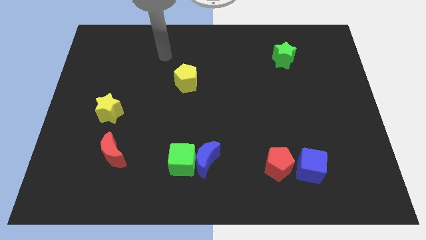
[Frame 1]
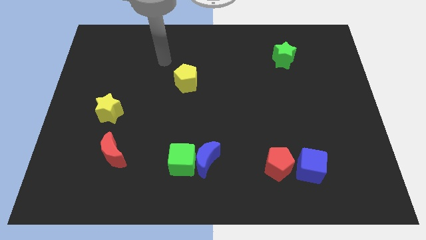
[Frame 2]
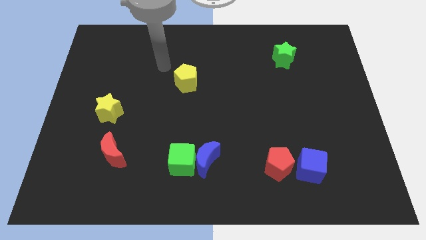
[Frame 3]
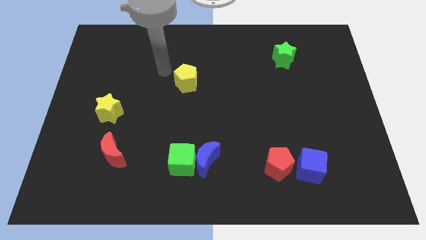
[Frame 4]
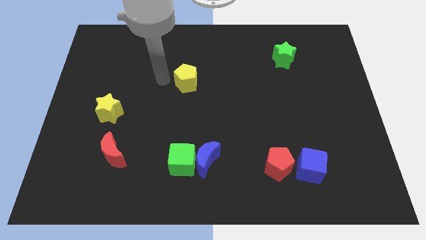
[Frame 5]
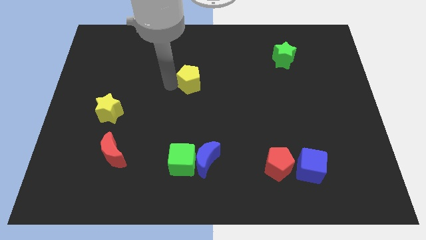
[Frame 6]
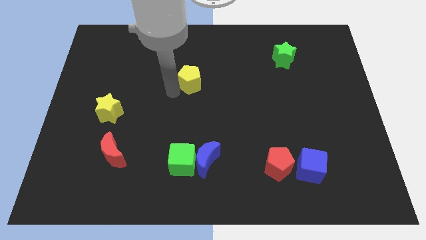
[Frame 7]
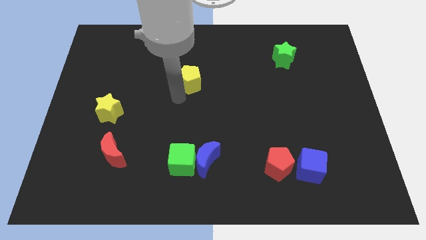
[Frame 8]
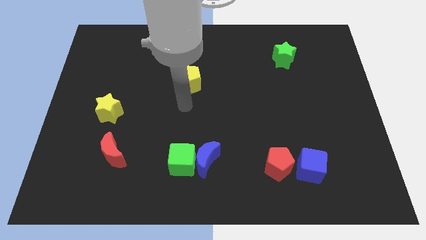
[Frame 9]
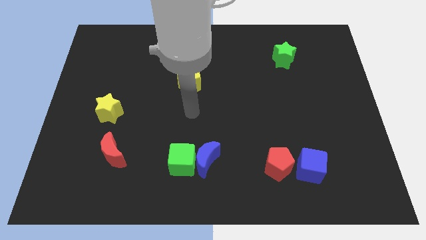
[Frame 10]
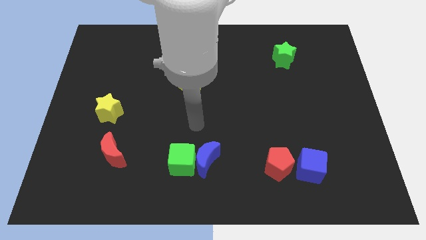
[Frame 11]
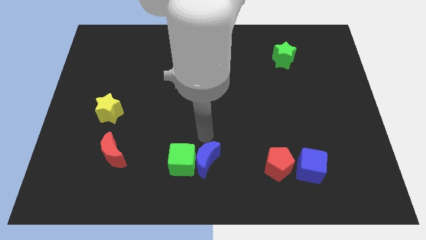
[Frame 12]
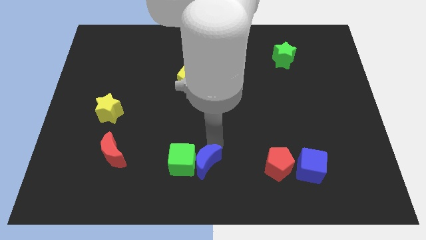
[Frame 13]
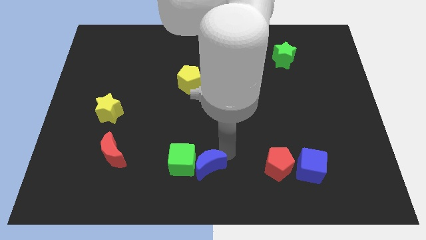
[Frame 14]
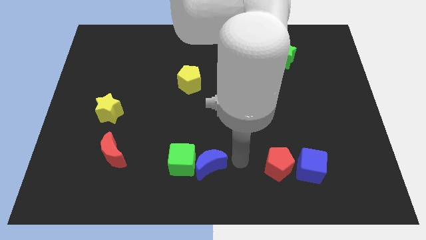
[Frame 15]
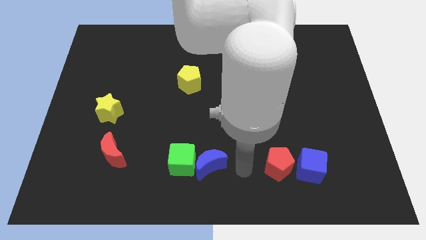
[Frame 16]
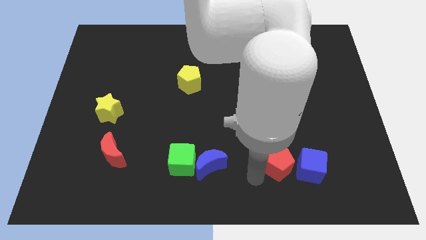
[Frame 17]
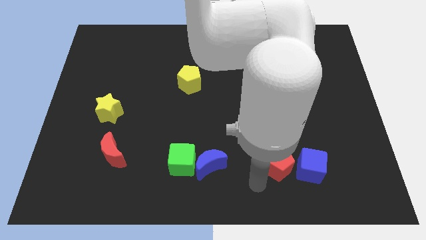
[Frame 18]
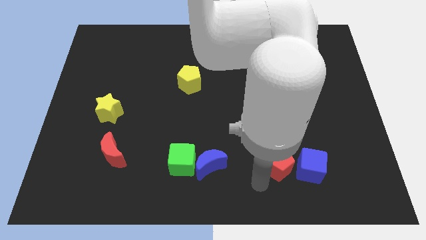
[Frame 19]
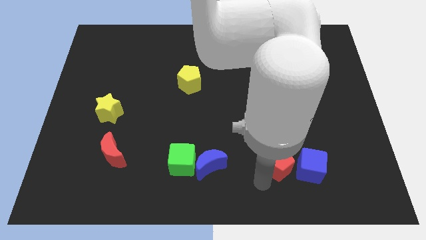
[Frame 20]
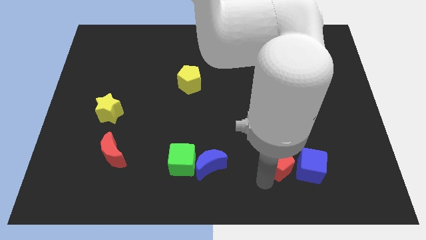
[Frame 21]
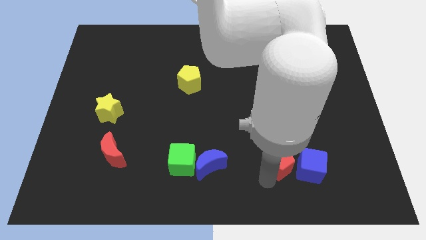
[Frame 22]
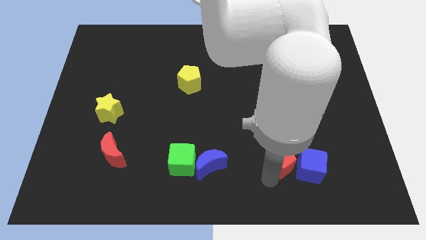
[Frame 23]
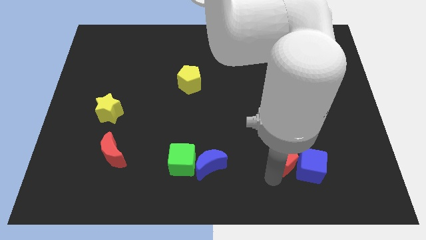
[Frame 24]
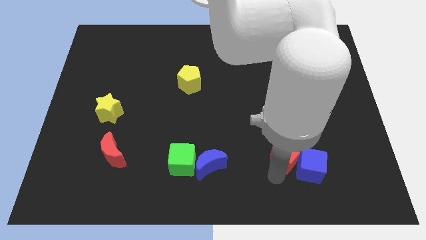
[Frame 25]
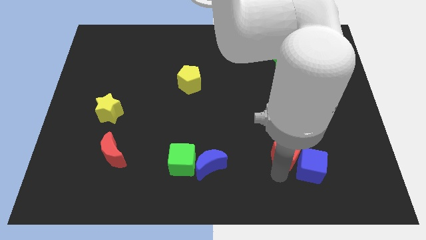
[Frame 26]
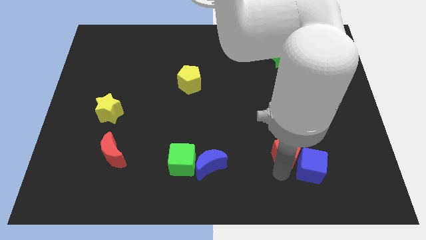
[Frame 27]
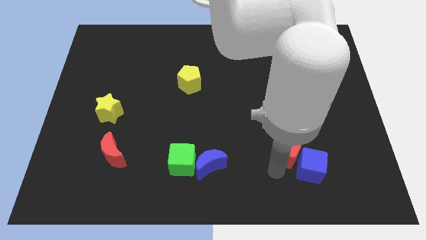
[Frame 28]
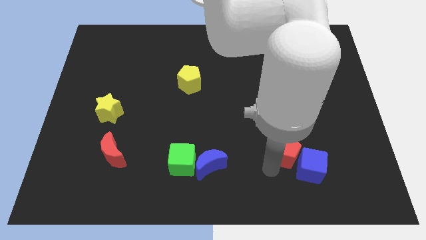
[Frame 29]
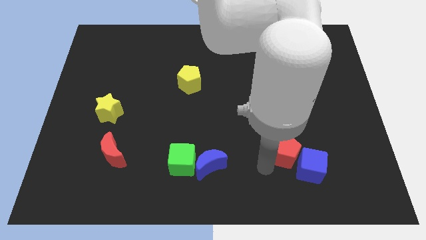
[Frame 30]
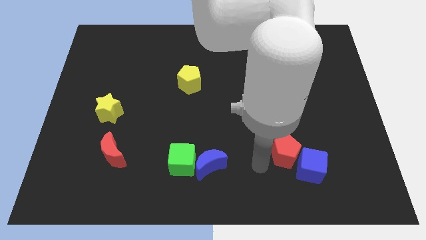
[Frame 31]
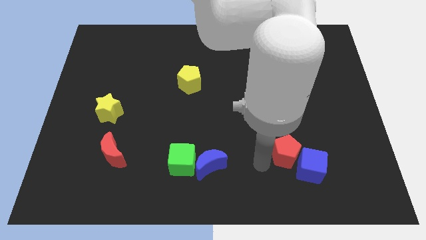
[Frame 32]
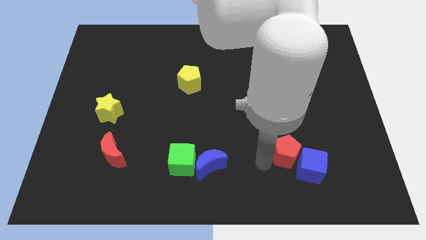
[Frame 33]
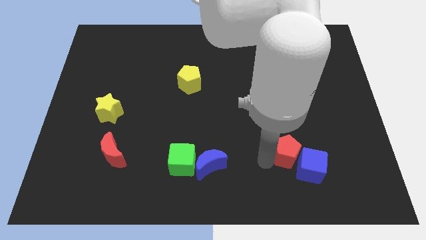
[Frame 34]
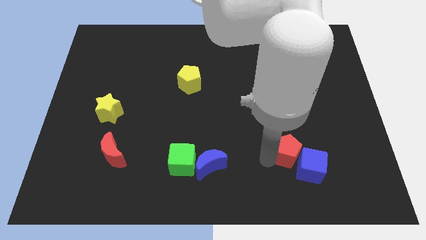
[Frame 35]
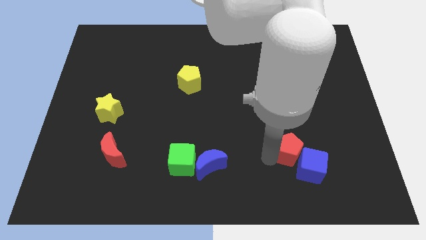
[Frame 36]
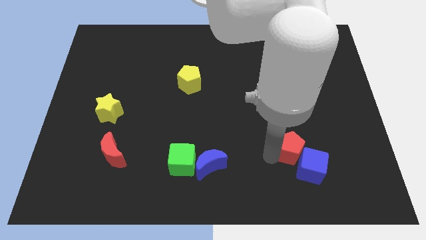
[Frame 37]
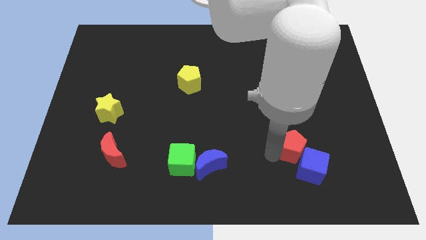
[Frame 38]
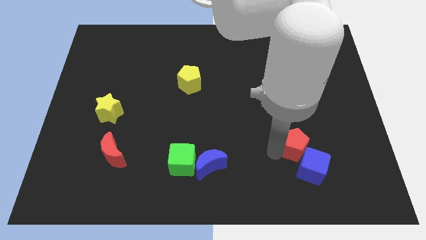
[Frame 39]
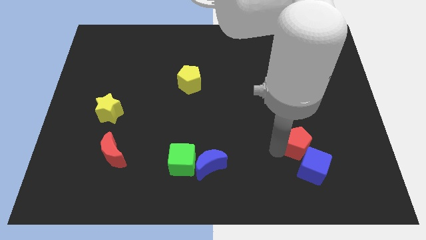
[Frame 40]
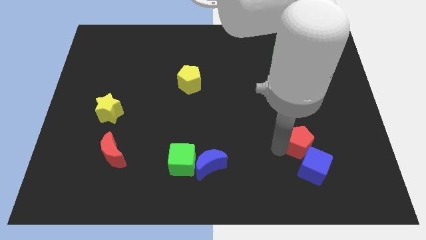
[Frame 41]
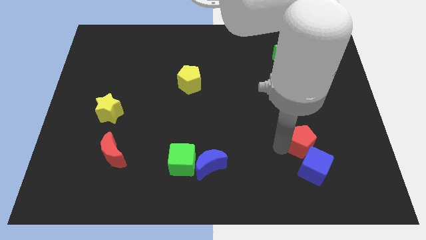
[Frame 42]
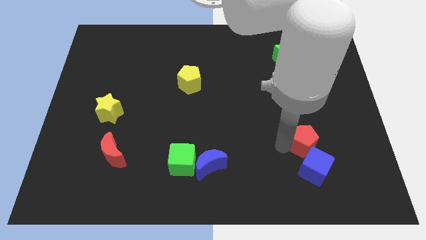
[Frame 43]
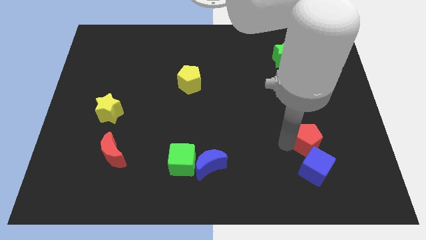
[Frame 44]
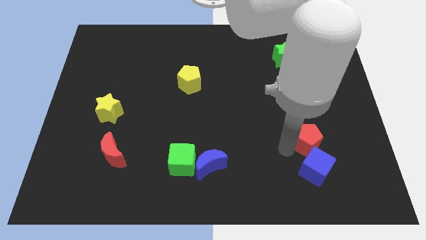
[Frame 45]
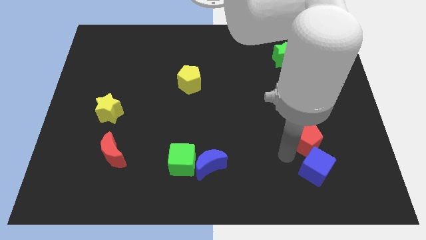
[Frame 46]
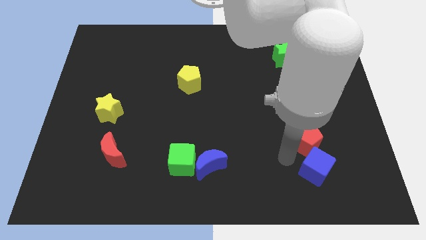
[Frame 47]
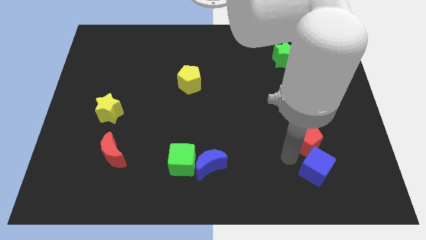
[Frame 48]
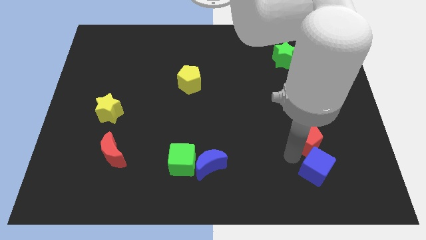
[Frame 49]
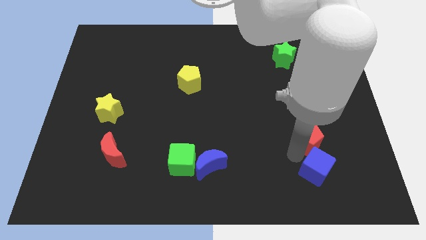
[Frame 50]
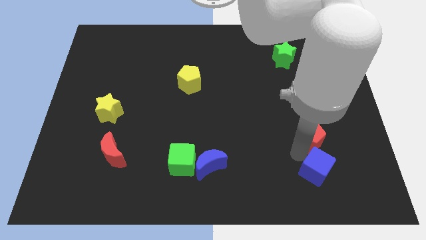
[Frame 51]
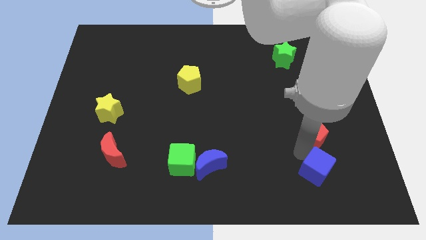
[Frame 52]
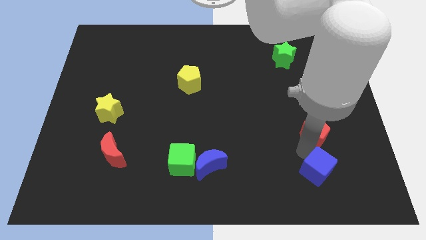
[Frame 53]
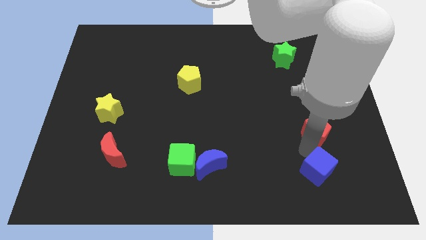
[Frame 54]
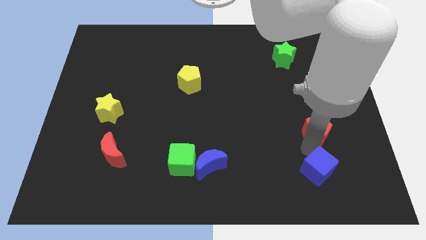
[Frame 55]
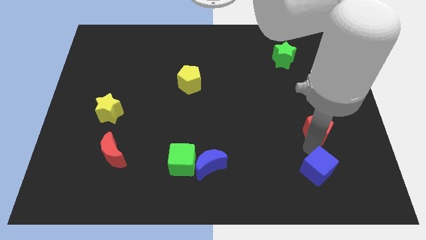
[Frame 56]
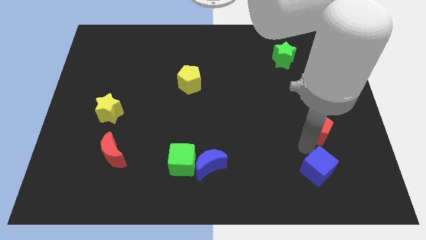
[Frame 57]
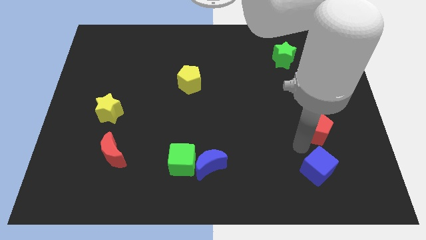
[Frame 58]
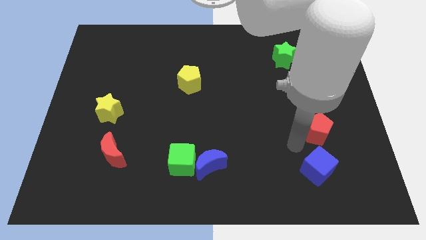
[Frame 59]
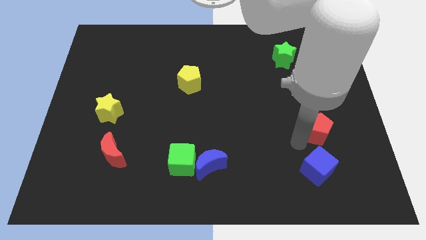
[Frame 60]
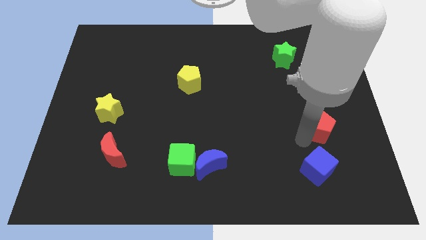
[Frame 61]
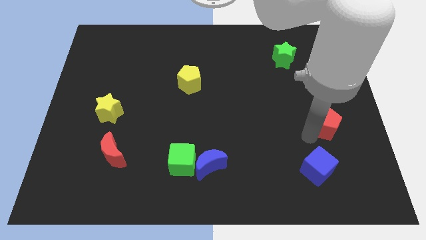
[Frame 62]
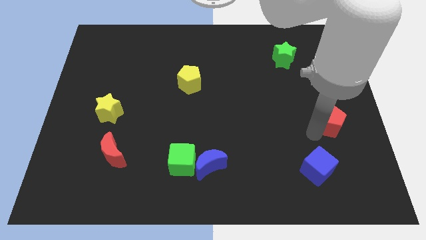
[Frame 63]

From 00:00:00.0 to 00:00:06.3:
move the red pentagon to the center right

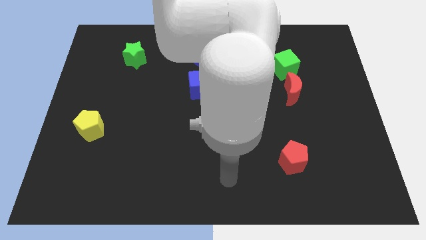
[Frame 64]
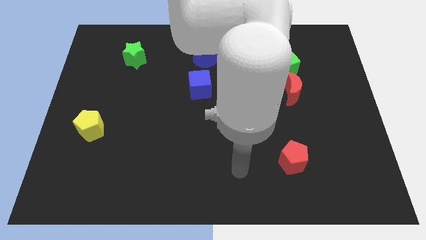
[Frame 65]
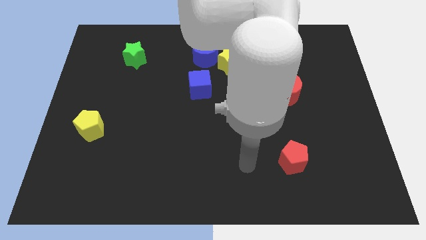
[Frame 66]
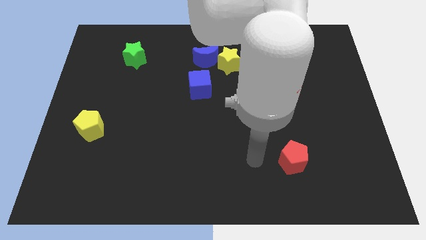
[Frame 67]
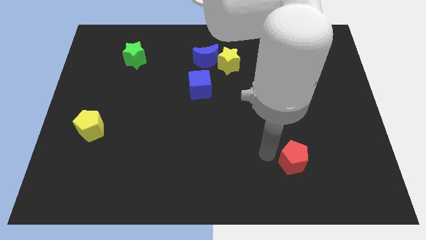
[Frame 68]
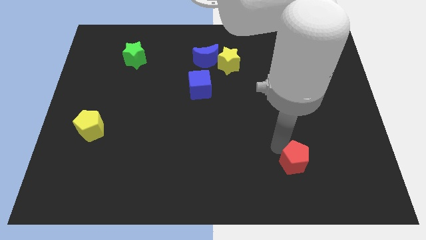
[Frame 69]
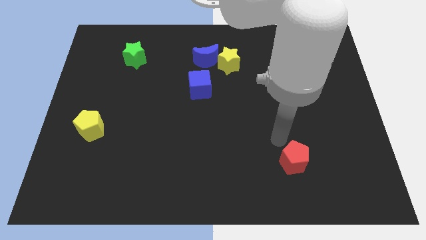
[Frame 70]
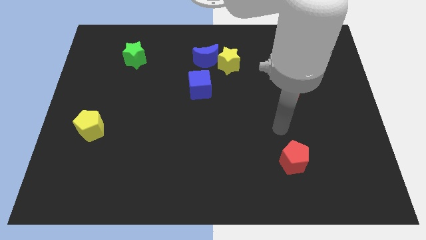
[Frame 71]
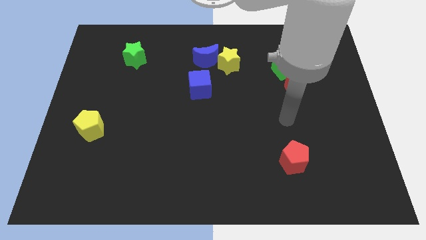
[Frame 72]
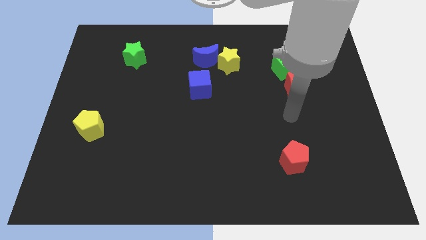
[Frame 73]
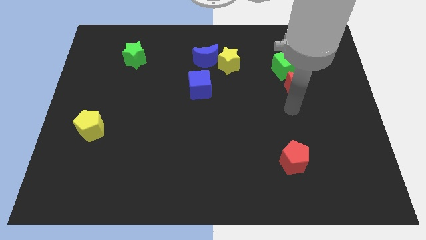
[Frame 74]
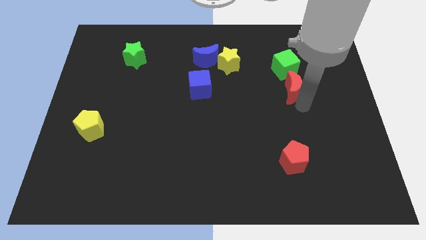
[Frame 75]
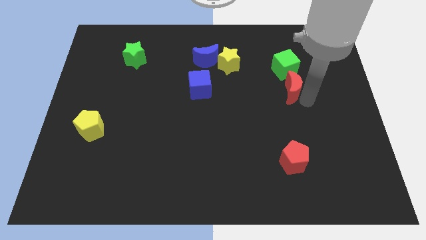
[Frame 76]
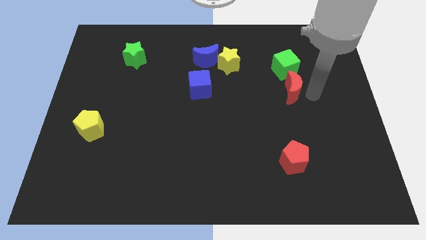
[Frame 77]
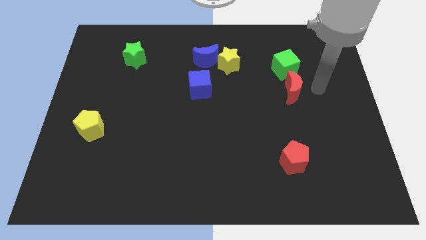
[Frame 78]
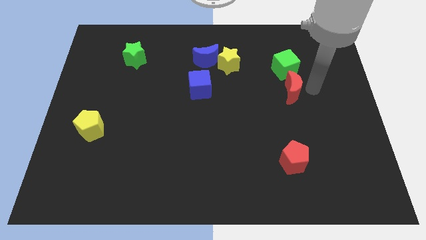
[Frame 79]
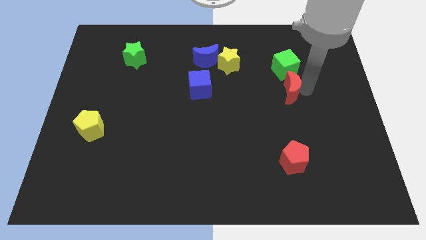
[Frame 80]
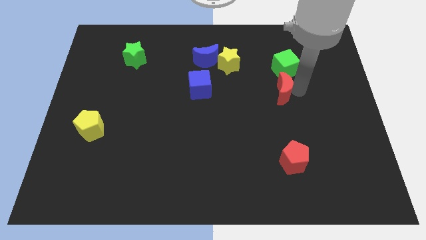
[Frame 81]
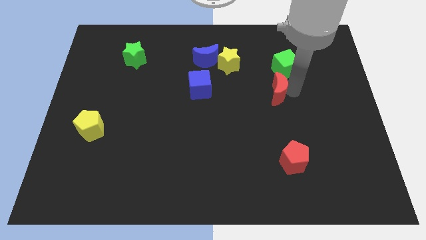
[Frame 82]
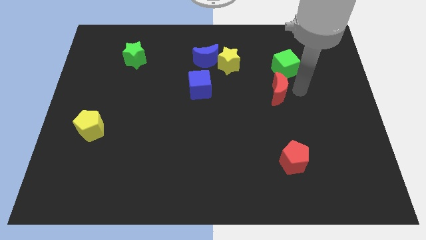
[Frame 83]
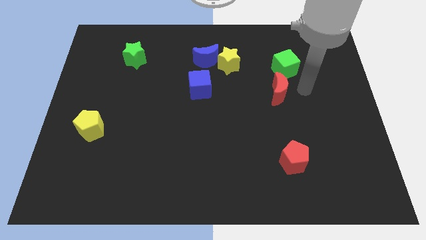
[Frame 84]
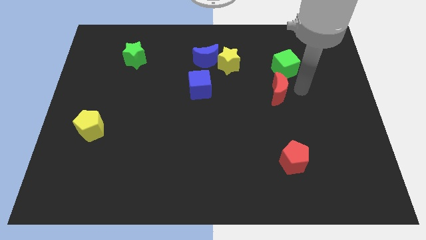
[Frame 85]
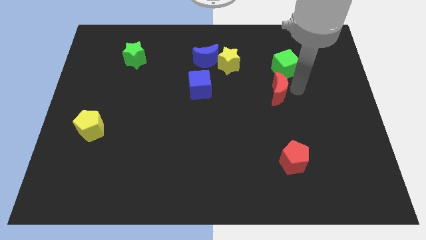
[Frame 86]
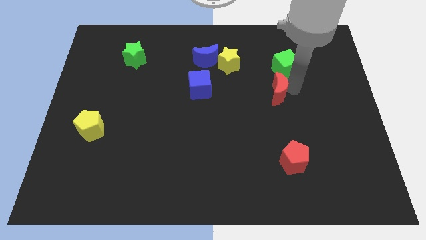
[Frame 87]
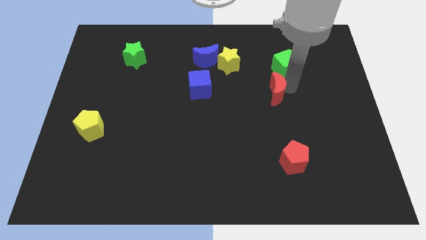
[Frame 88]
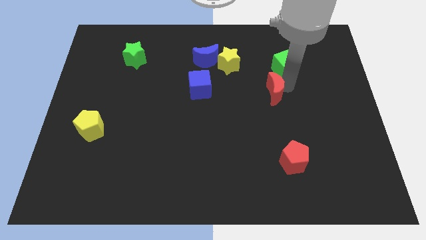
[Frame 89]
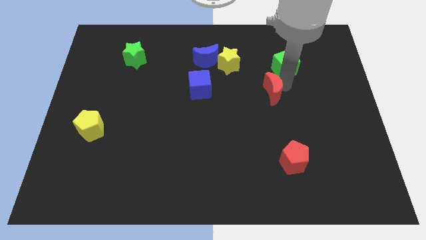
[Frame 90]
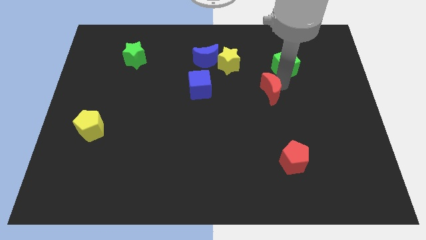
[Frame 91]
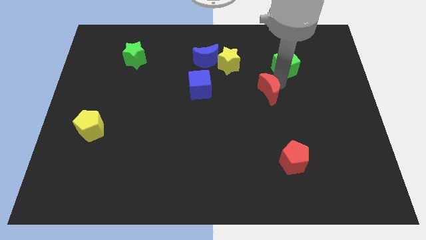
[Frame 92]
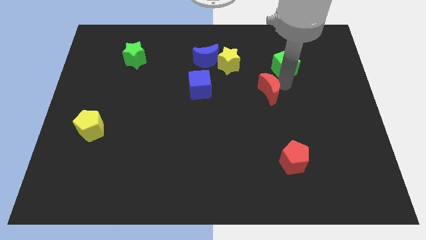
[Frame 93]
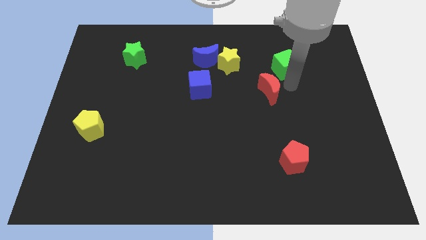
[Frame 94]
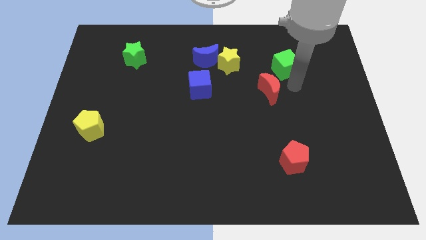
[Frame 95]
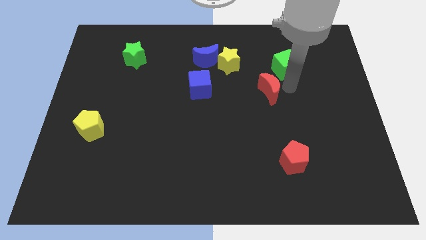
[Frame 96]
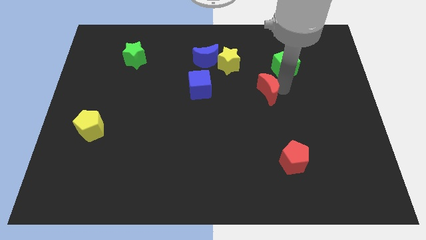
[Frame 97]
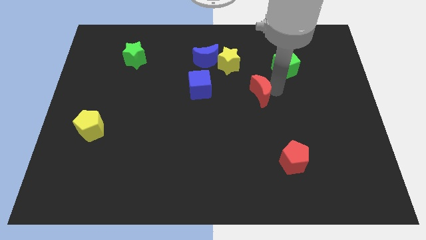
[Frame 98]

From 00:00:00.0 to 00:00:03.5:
push the red moon to the center
